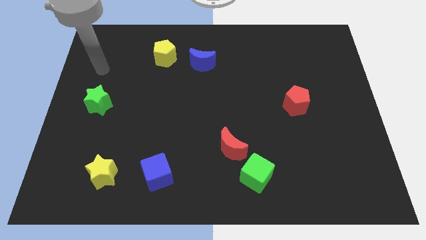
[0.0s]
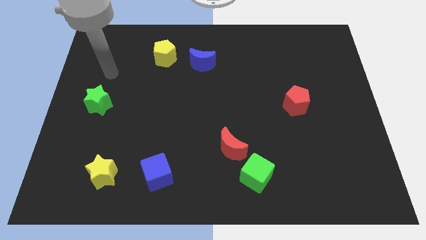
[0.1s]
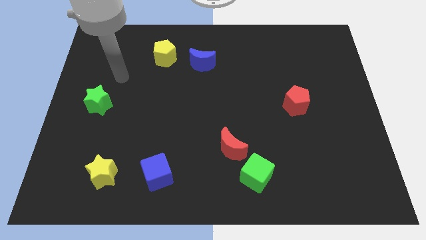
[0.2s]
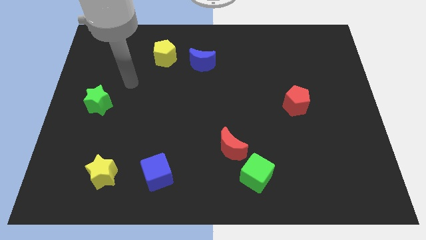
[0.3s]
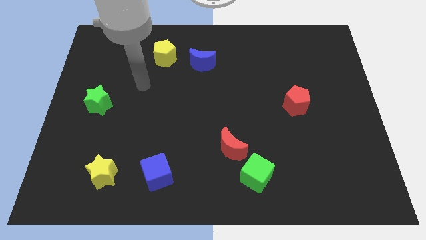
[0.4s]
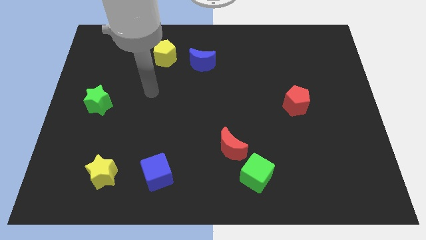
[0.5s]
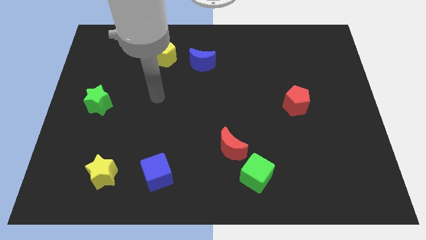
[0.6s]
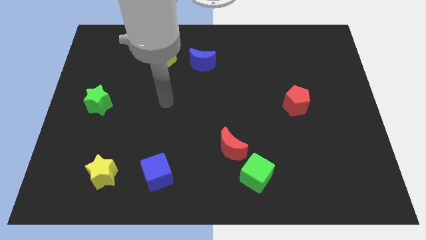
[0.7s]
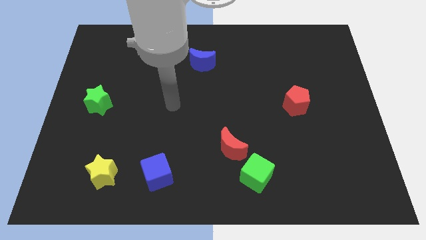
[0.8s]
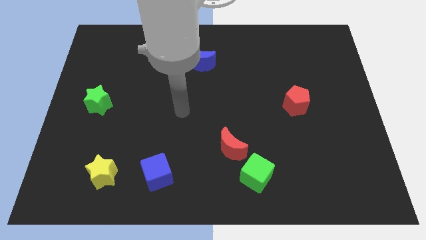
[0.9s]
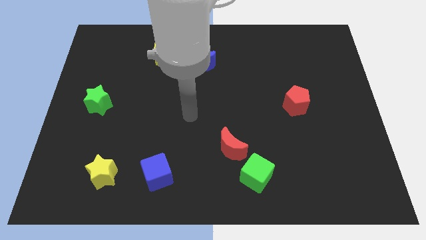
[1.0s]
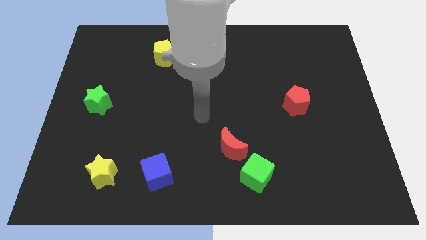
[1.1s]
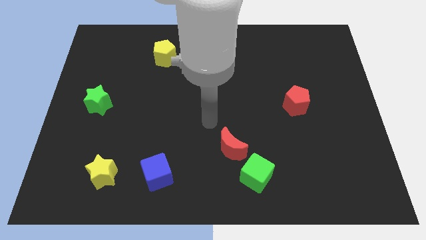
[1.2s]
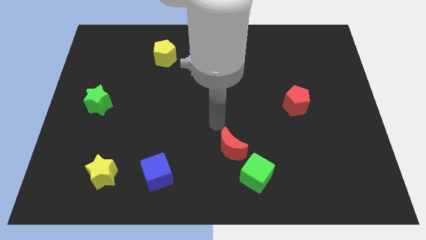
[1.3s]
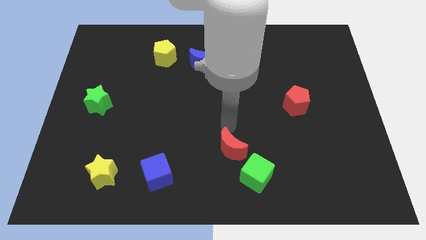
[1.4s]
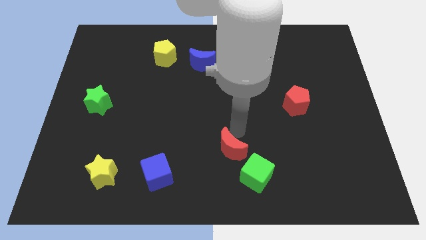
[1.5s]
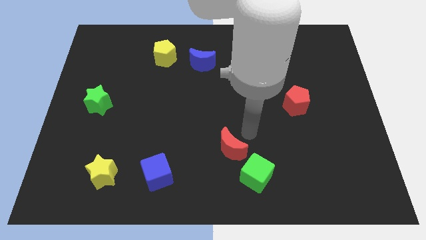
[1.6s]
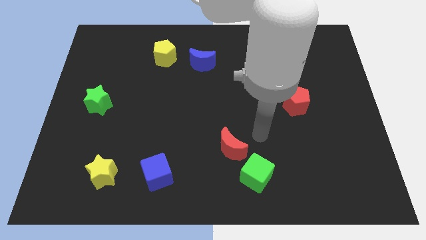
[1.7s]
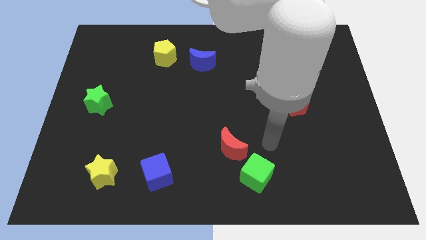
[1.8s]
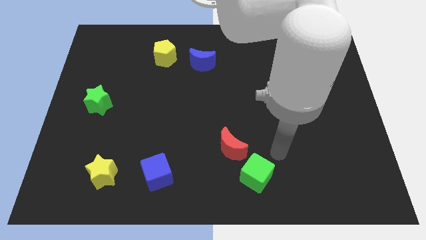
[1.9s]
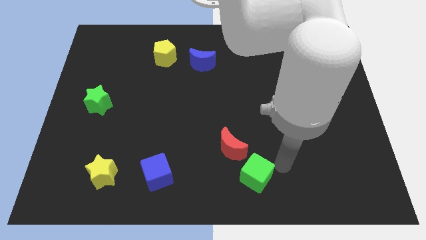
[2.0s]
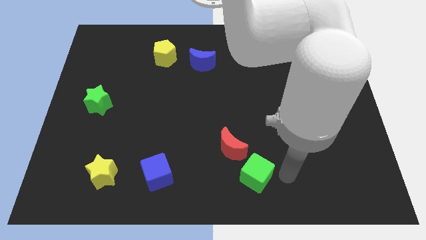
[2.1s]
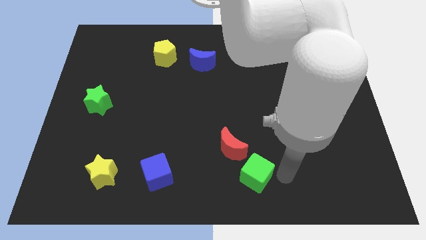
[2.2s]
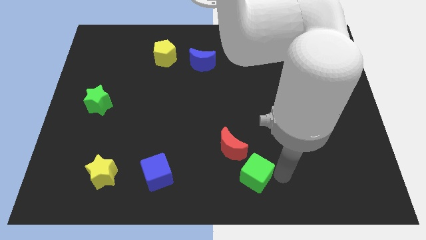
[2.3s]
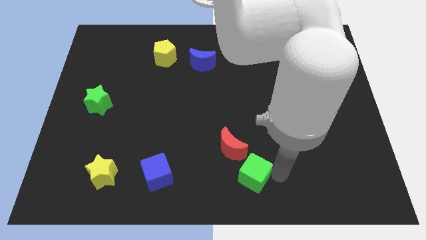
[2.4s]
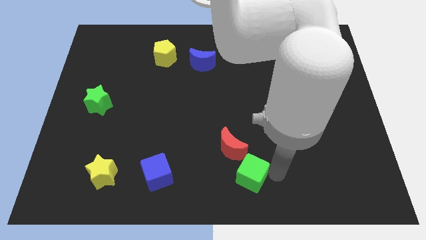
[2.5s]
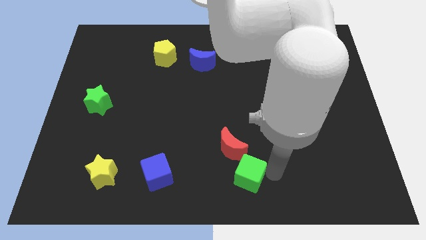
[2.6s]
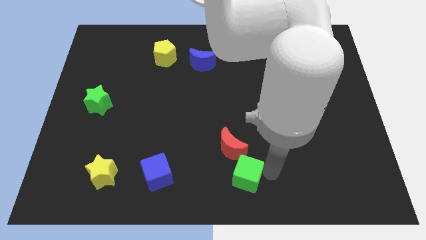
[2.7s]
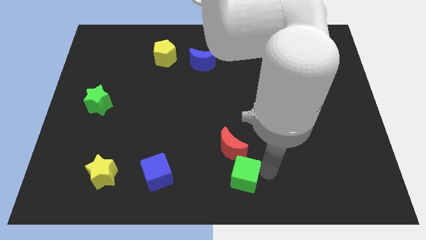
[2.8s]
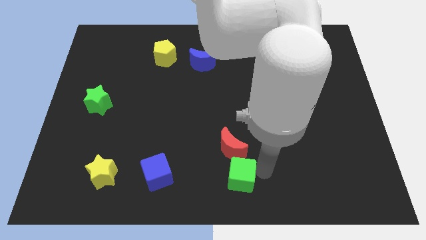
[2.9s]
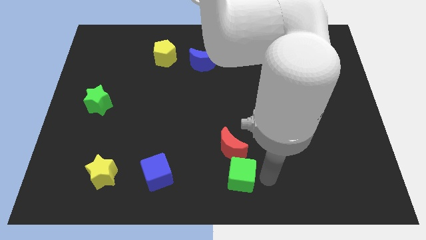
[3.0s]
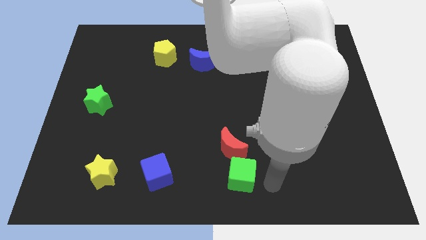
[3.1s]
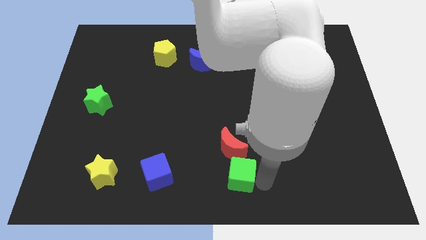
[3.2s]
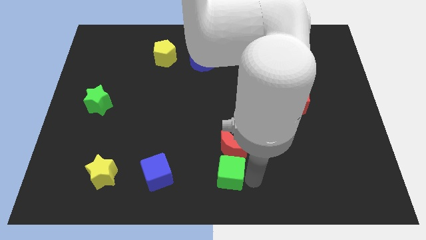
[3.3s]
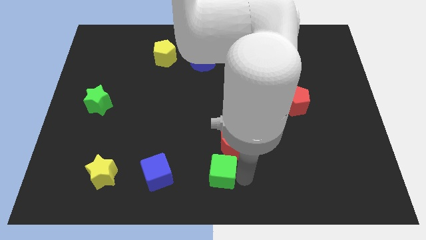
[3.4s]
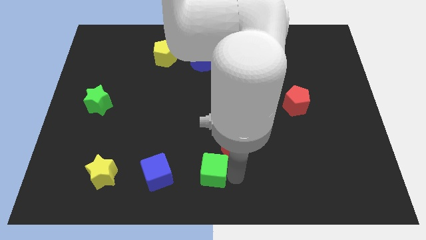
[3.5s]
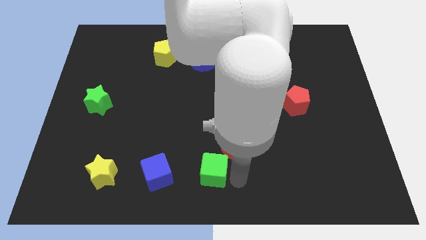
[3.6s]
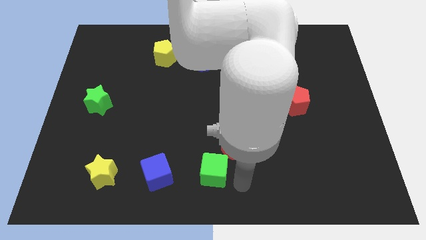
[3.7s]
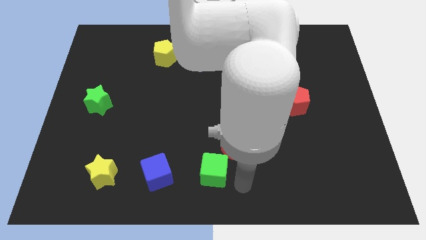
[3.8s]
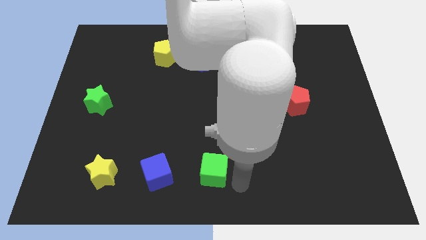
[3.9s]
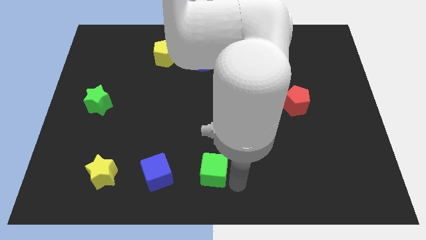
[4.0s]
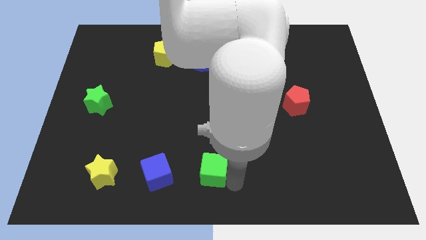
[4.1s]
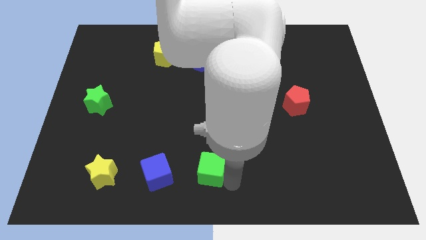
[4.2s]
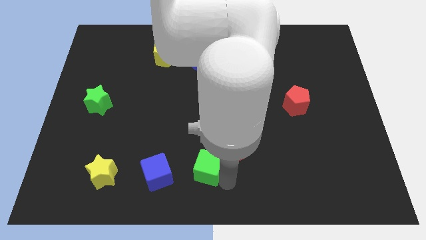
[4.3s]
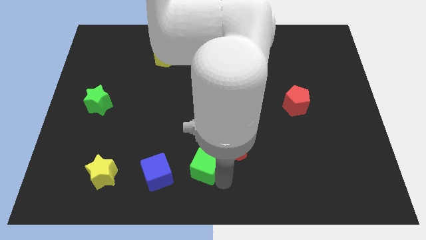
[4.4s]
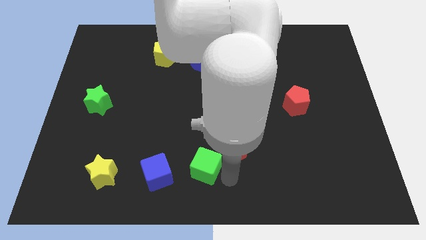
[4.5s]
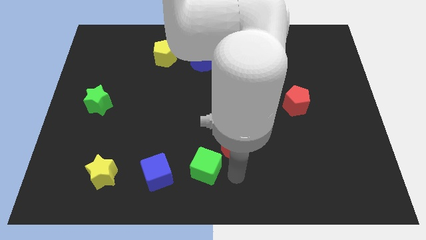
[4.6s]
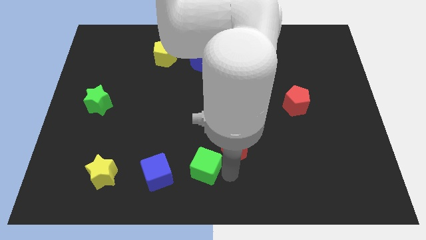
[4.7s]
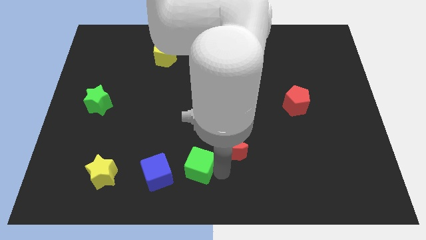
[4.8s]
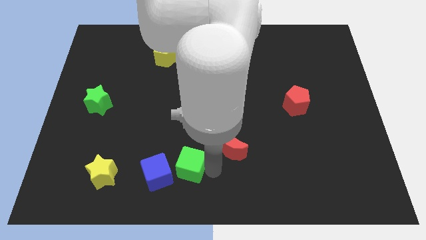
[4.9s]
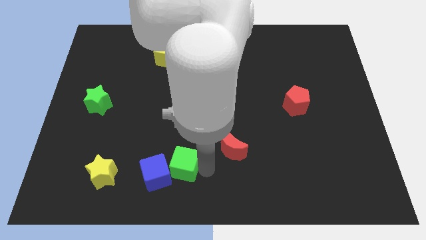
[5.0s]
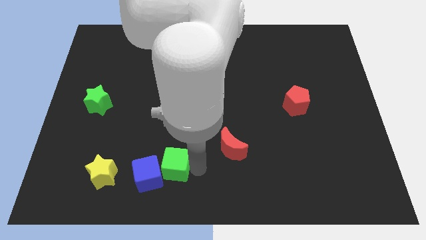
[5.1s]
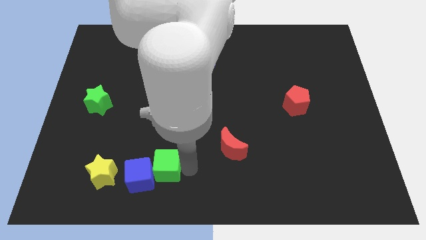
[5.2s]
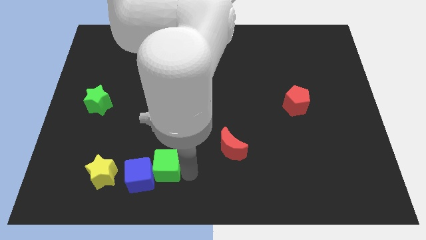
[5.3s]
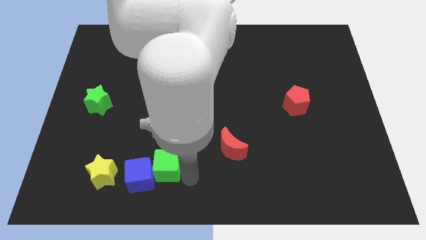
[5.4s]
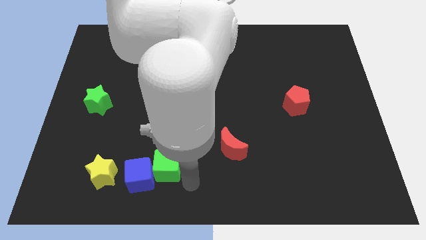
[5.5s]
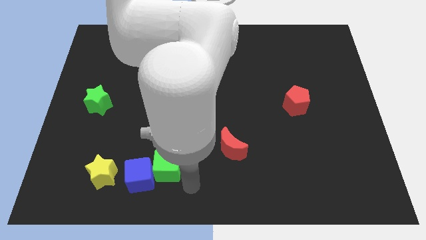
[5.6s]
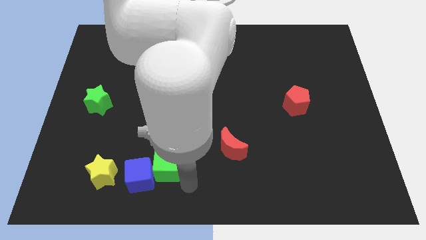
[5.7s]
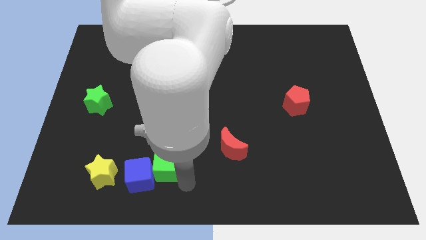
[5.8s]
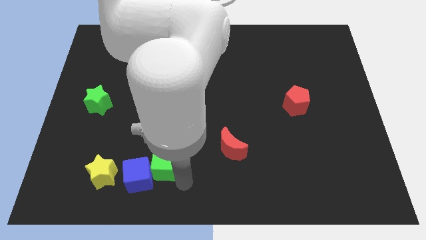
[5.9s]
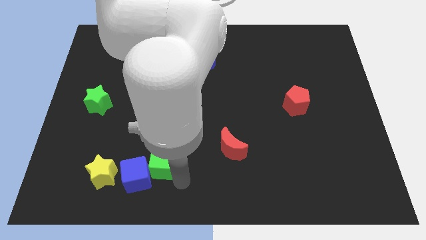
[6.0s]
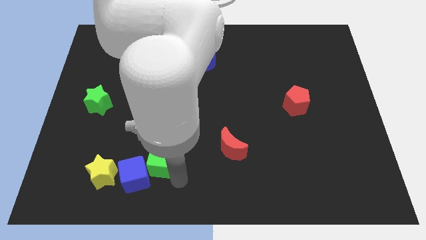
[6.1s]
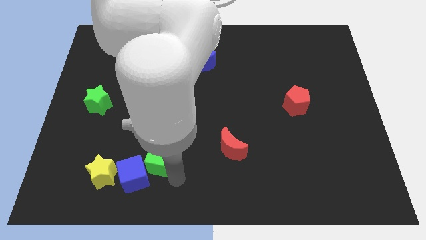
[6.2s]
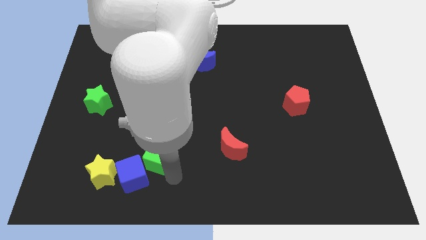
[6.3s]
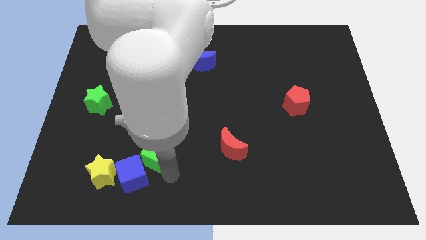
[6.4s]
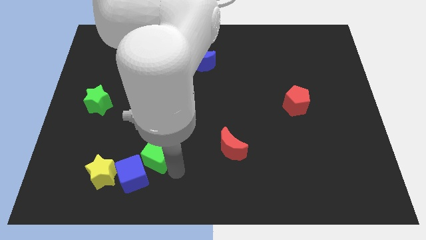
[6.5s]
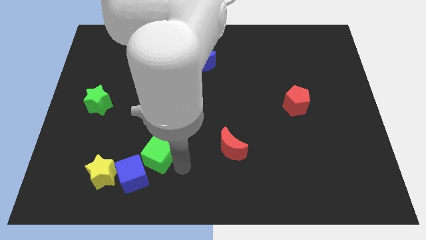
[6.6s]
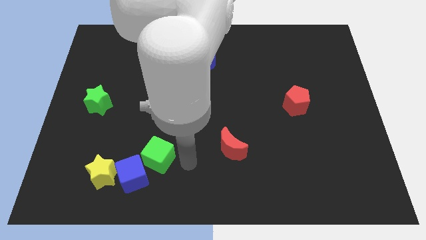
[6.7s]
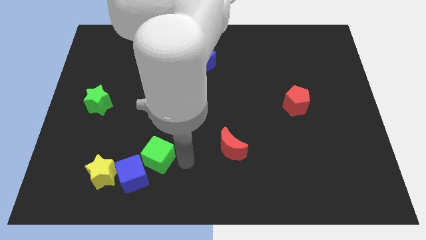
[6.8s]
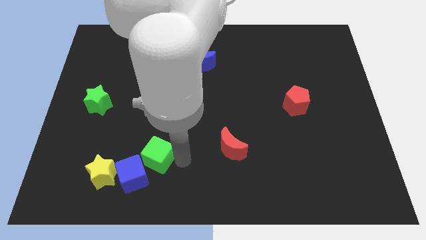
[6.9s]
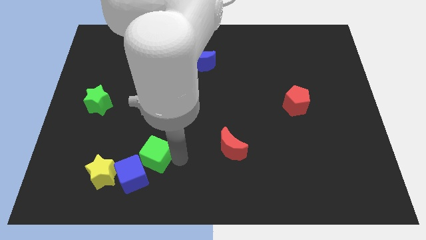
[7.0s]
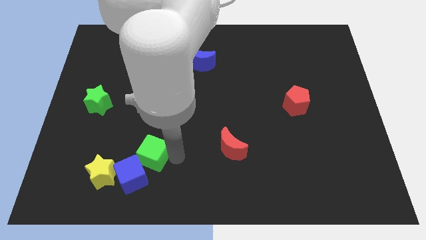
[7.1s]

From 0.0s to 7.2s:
put the green cube to the top right of the yellow star
